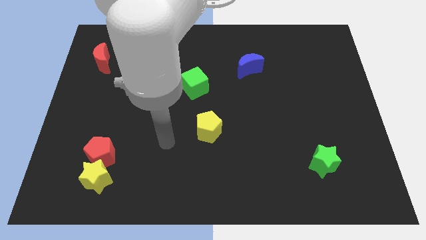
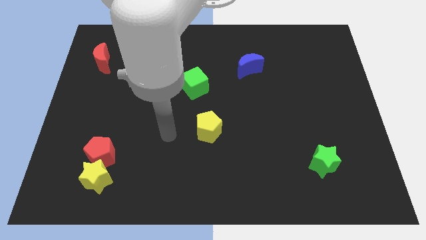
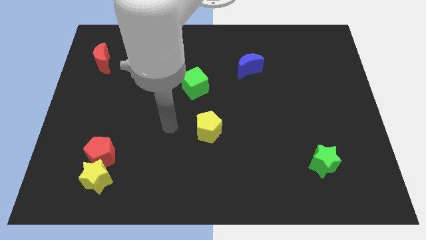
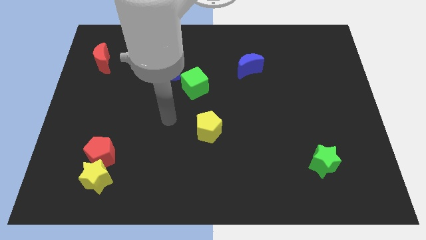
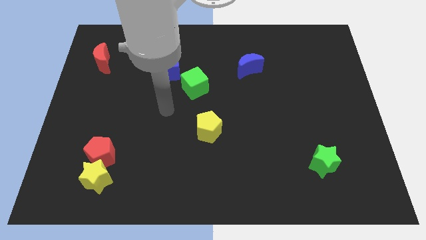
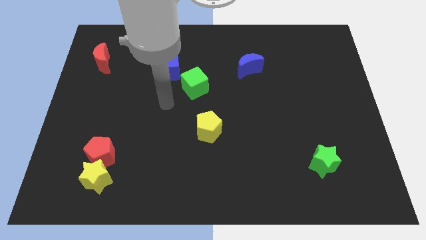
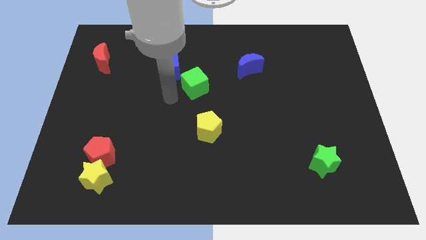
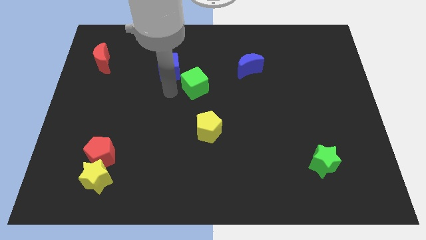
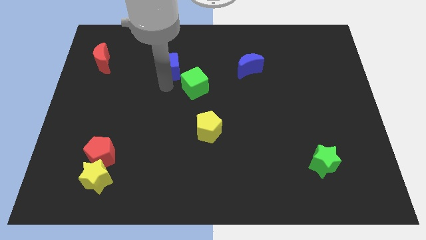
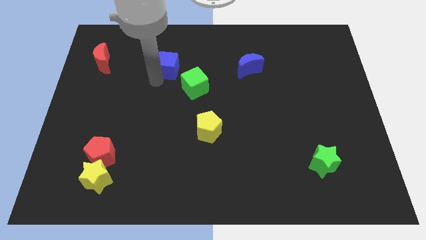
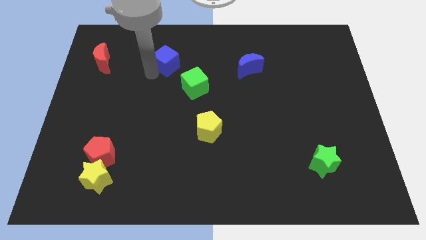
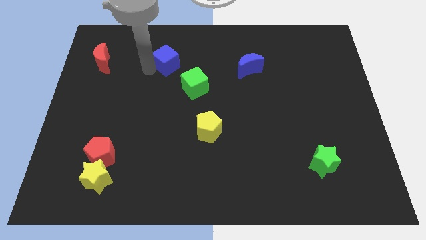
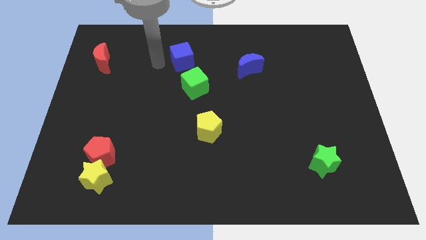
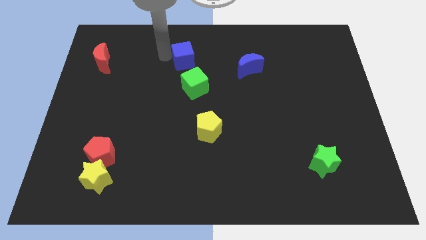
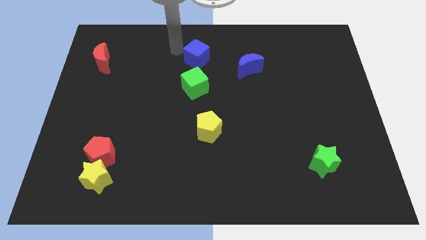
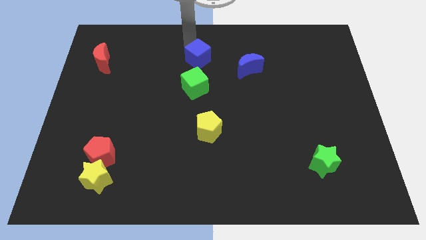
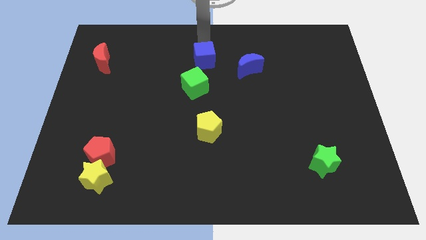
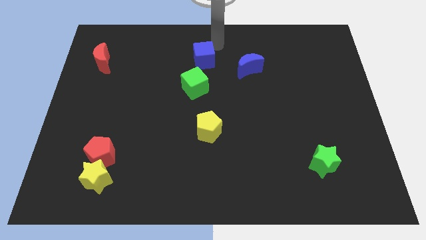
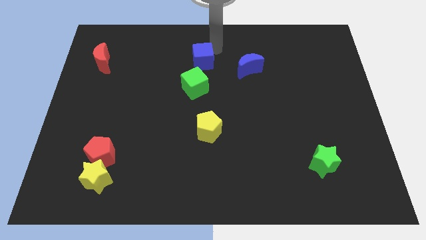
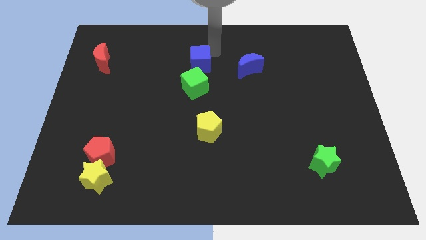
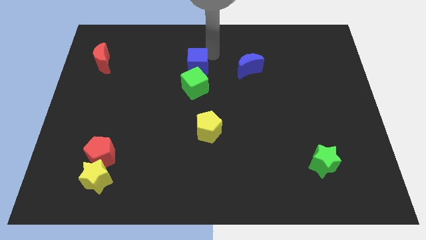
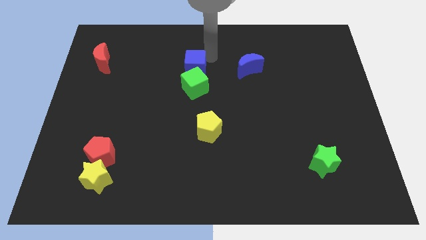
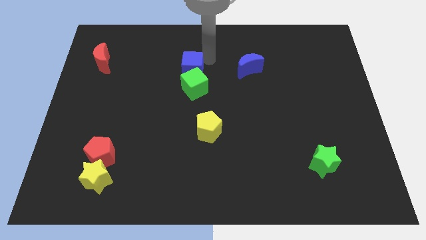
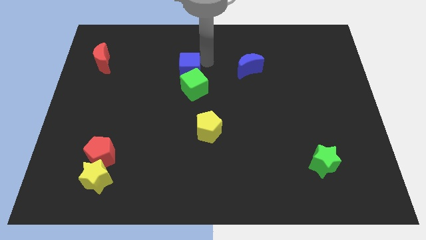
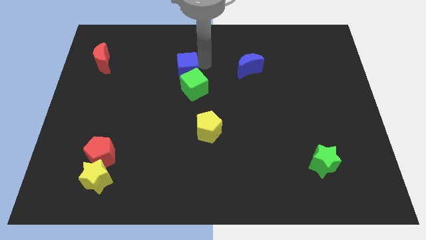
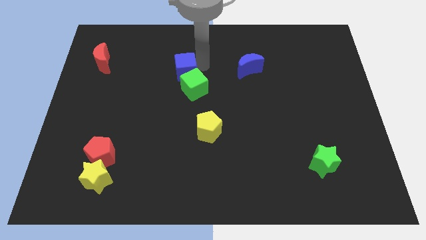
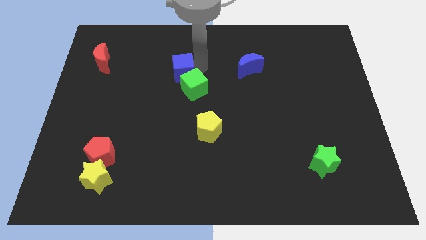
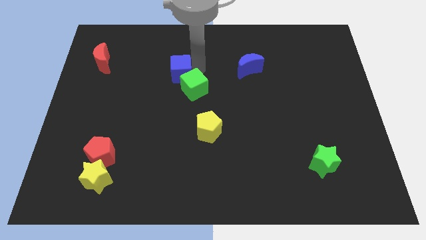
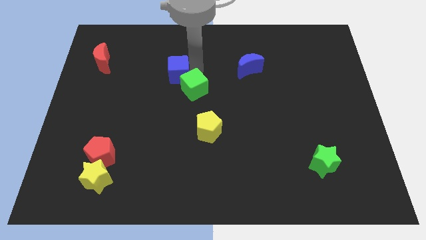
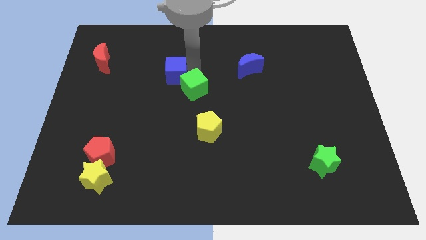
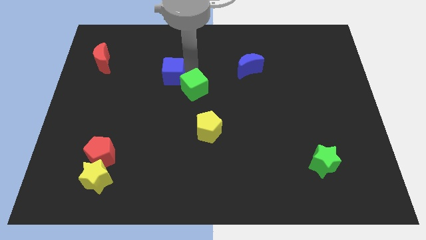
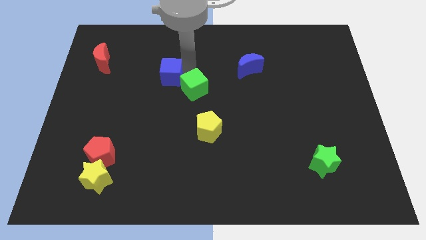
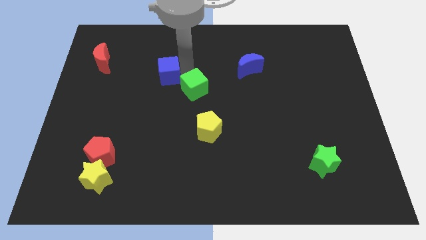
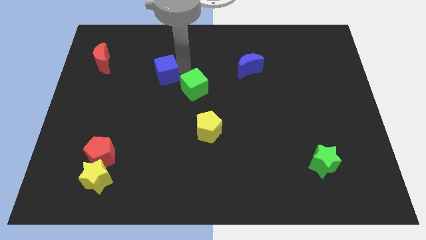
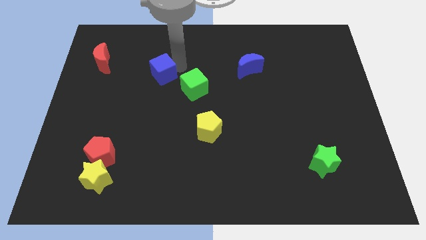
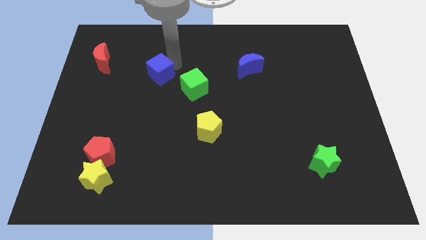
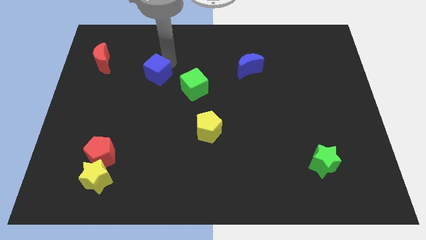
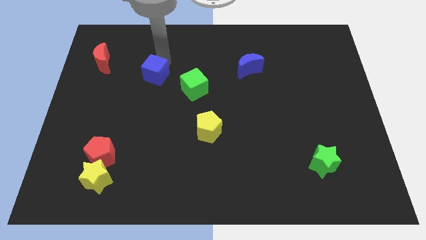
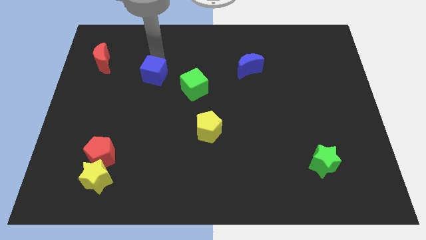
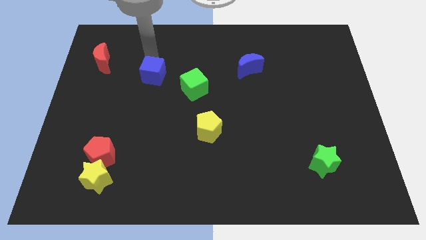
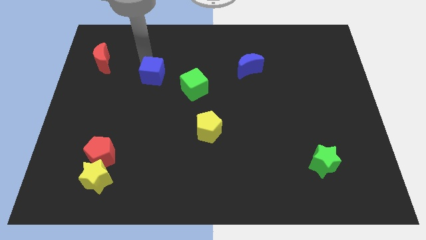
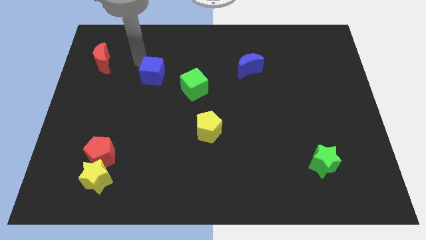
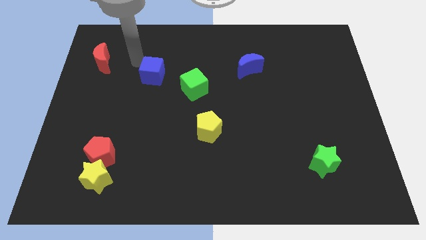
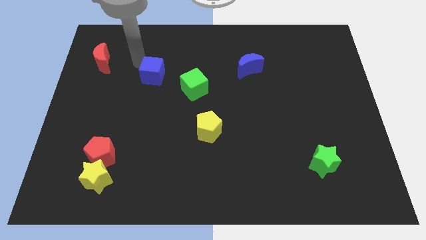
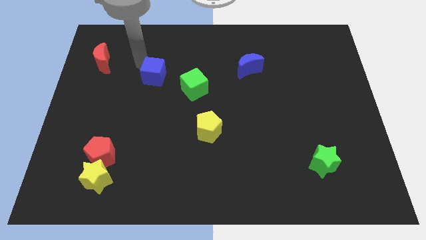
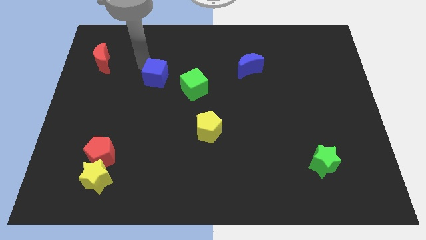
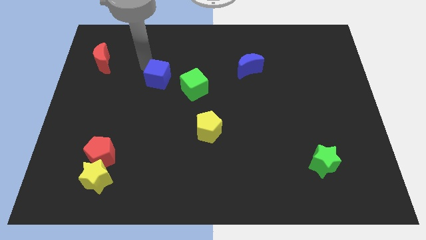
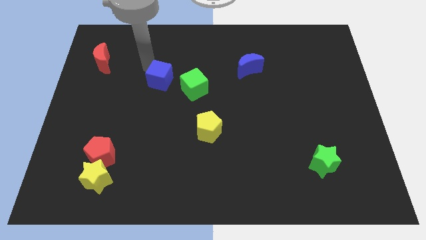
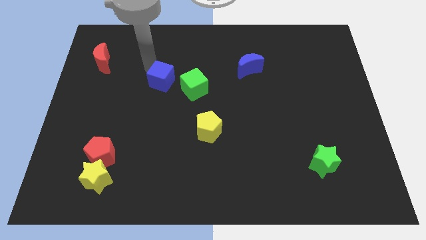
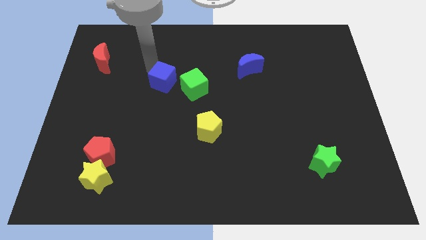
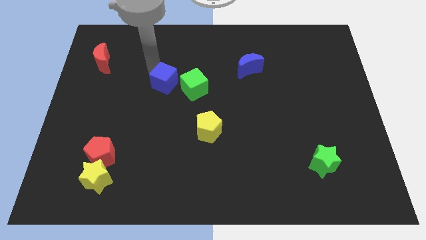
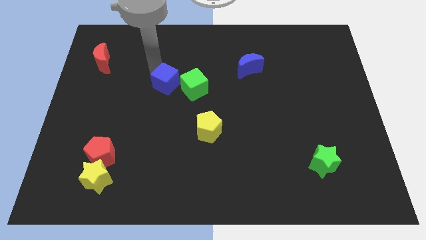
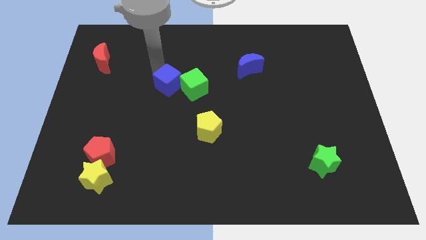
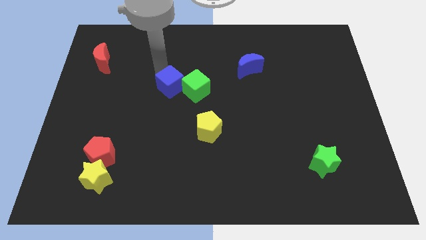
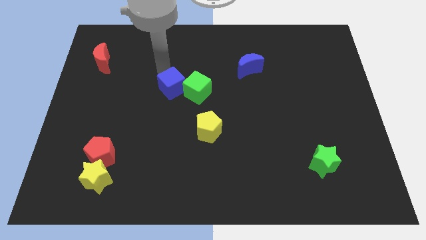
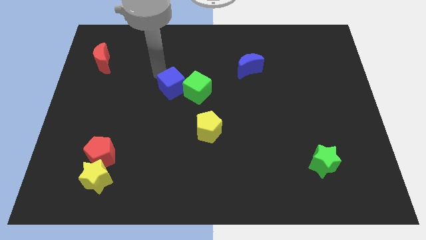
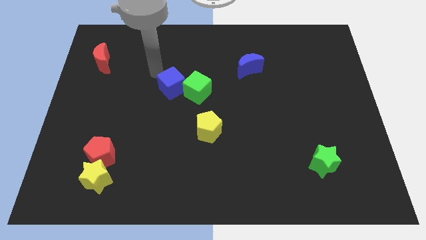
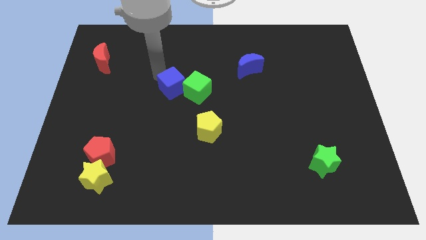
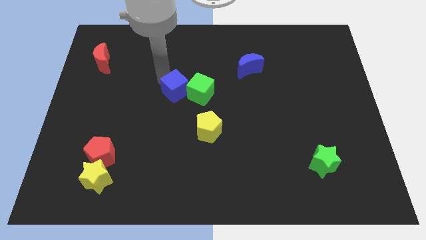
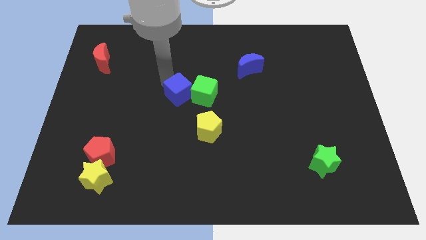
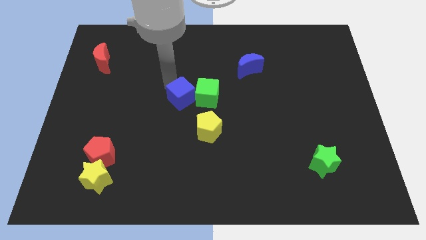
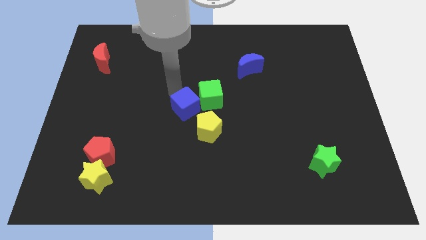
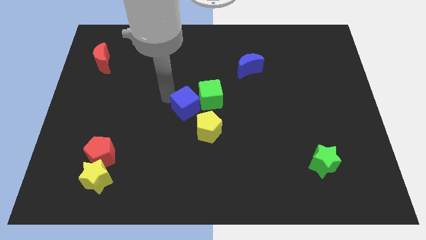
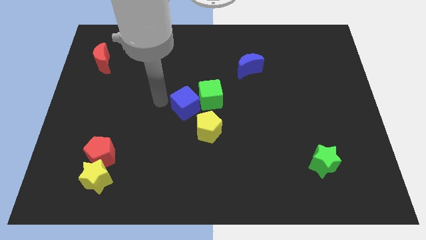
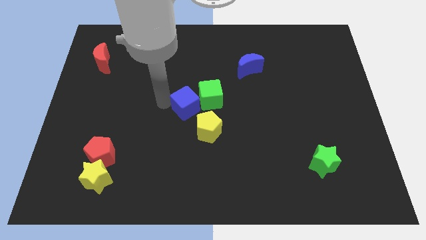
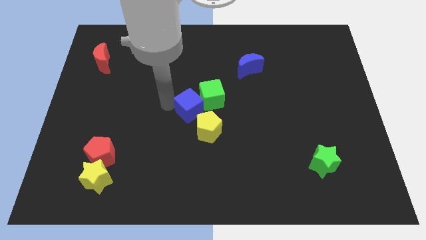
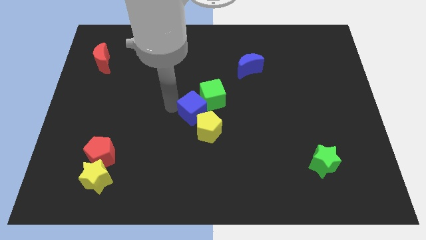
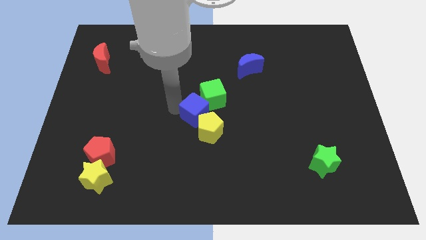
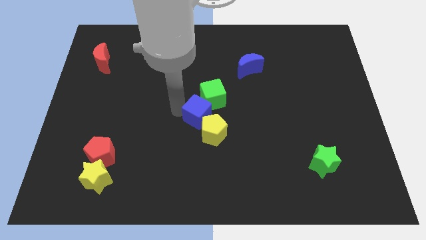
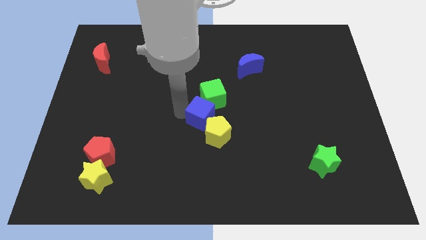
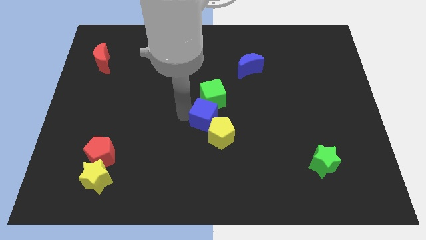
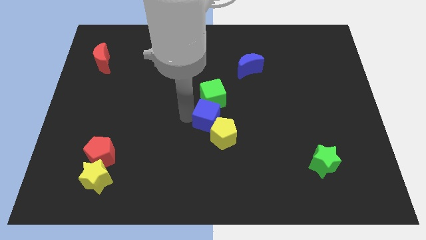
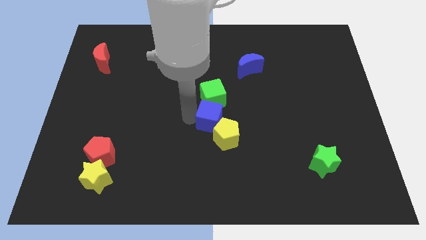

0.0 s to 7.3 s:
slide the blue cube to the bottom right of the green cube
